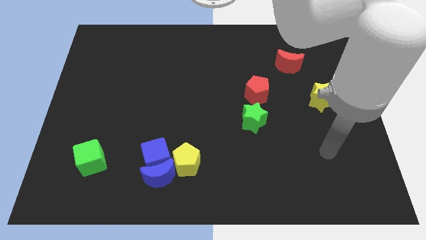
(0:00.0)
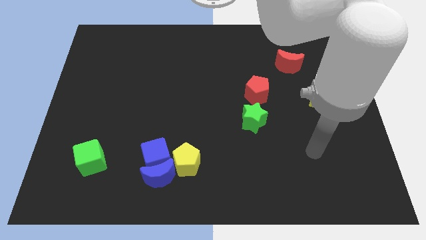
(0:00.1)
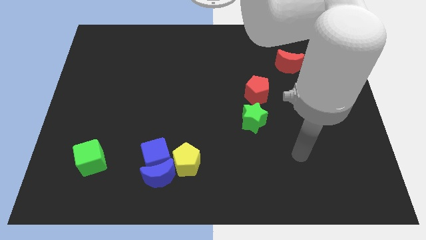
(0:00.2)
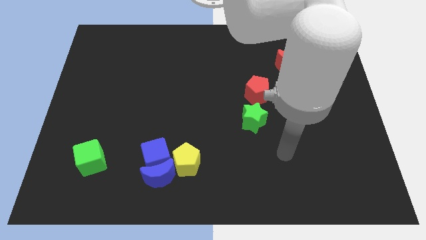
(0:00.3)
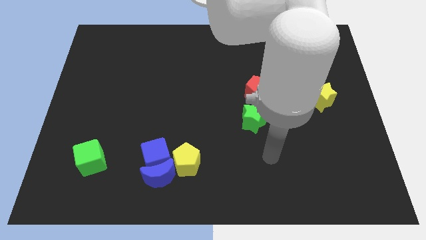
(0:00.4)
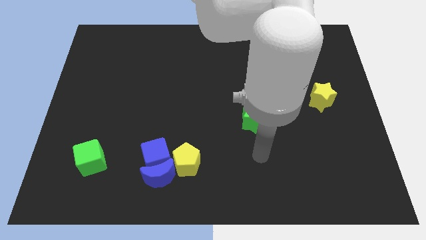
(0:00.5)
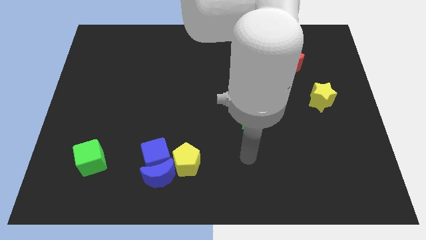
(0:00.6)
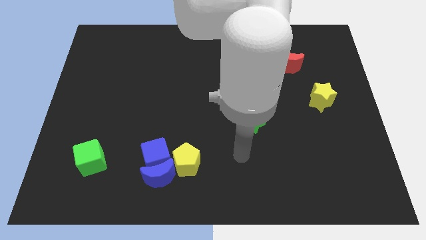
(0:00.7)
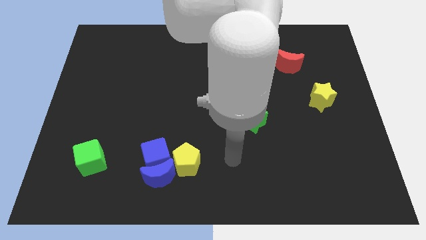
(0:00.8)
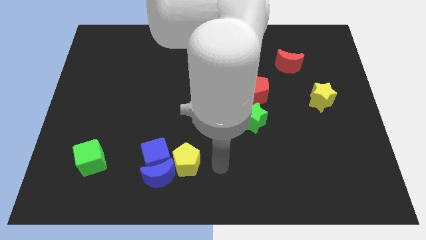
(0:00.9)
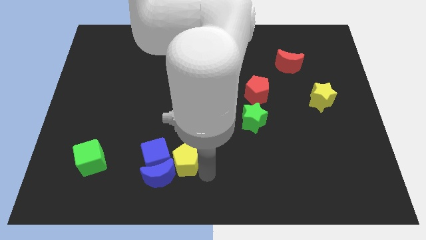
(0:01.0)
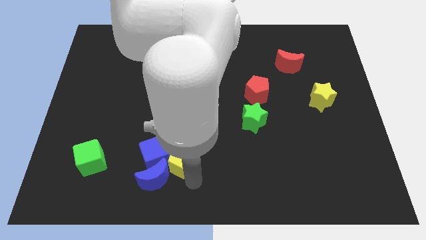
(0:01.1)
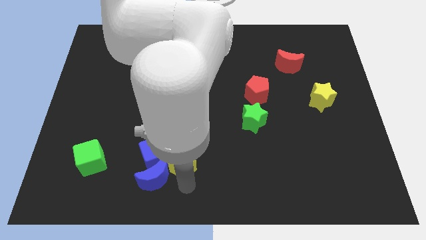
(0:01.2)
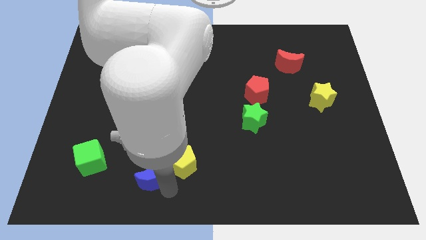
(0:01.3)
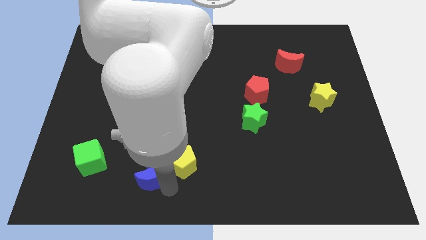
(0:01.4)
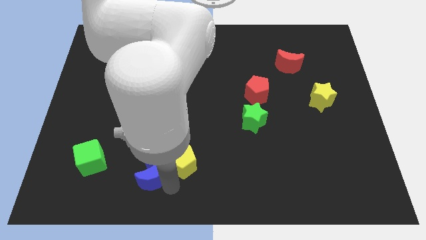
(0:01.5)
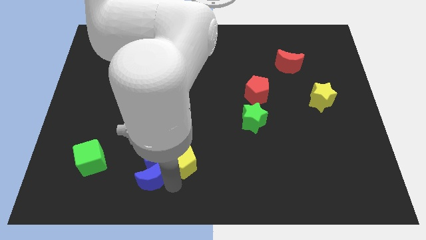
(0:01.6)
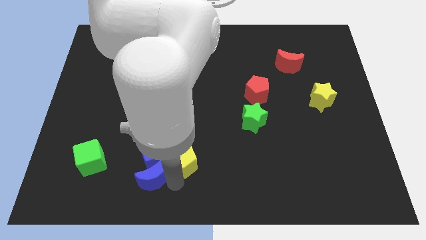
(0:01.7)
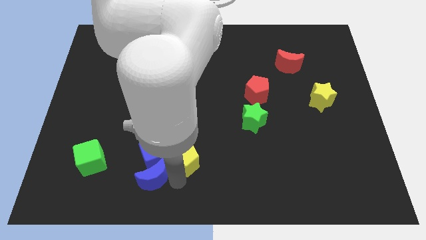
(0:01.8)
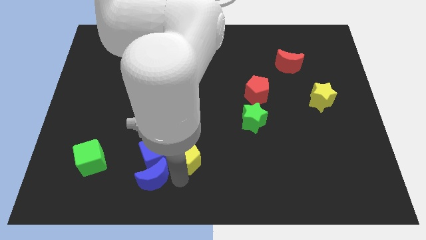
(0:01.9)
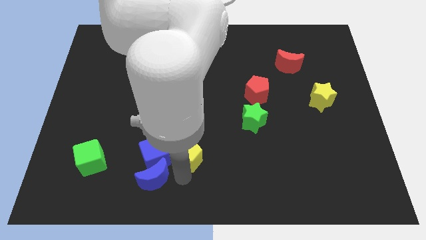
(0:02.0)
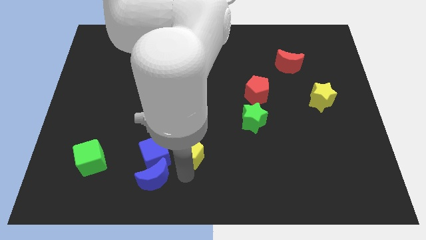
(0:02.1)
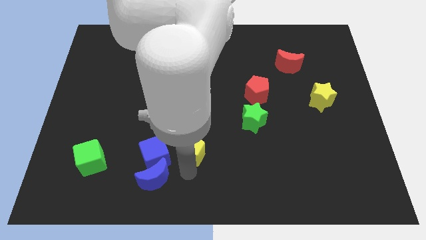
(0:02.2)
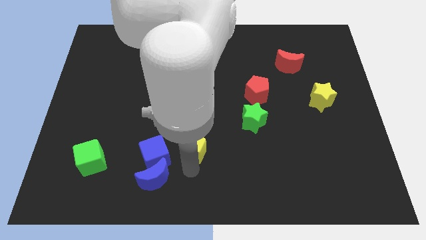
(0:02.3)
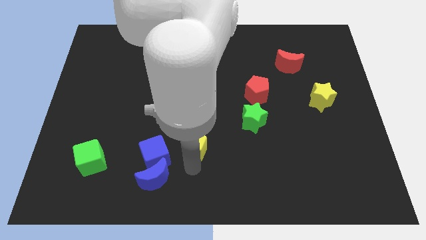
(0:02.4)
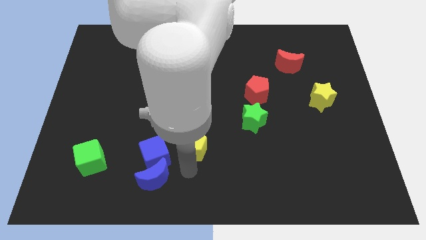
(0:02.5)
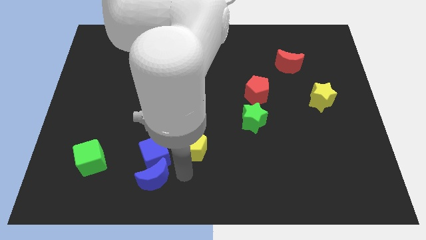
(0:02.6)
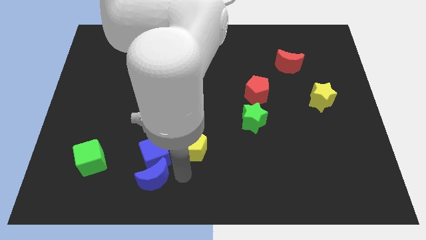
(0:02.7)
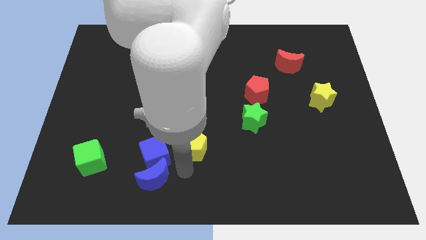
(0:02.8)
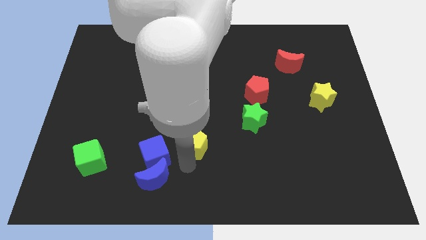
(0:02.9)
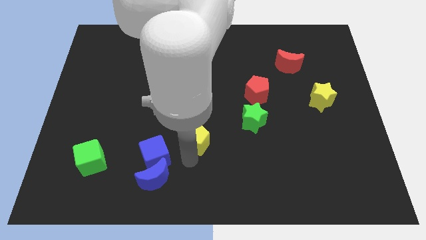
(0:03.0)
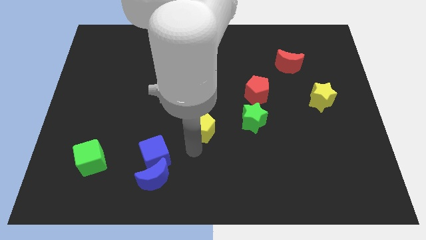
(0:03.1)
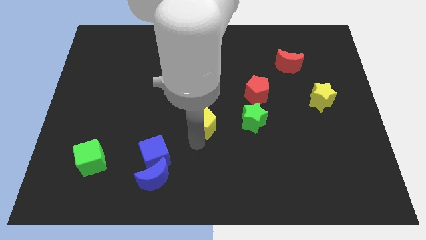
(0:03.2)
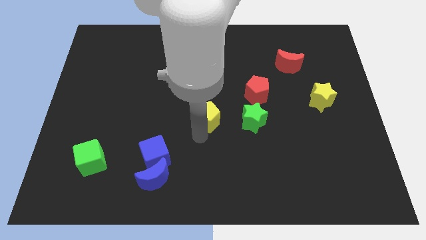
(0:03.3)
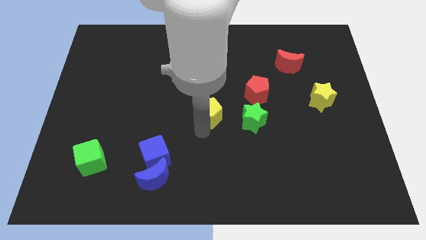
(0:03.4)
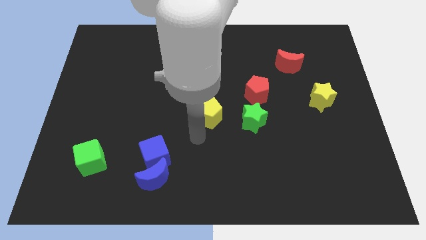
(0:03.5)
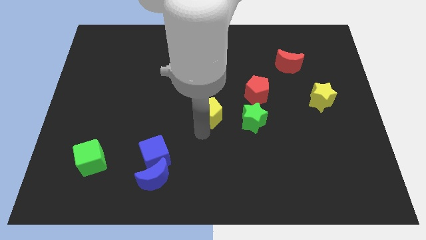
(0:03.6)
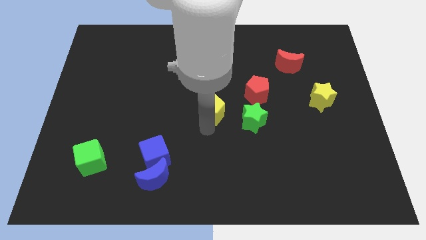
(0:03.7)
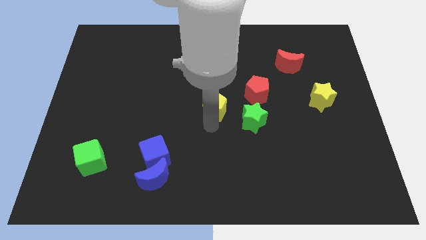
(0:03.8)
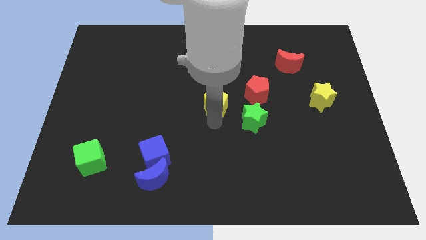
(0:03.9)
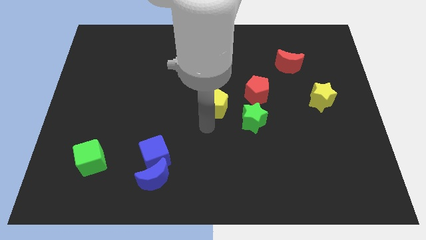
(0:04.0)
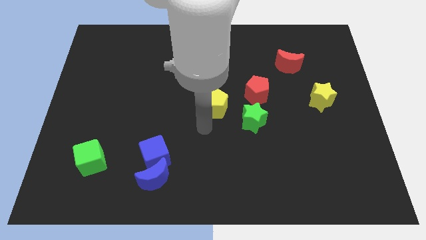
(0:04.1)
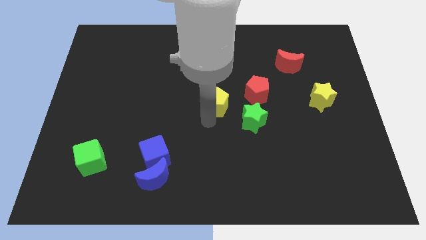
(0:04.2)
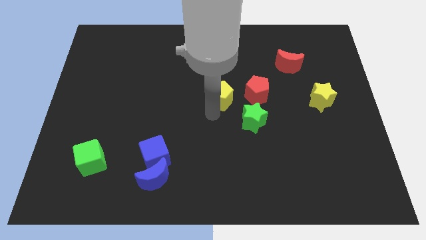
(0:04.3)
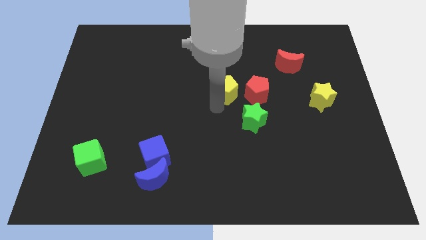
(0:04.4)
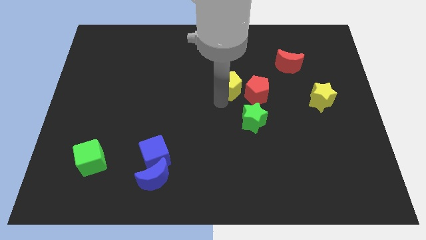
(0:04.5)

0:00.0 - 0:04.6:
put the yellow pentagon diagonally up and to the left of the red pentagon

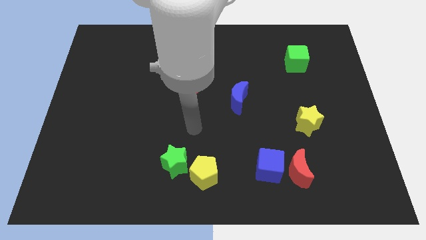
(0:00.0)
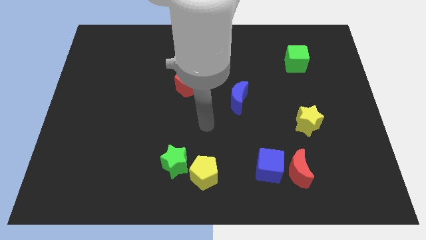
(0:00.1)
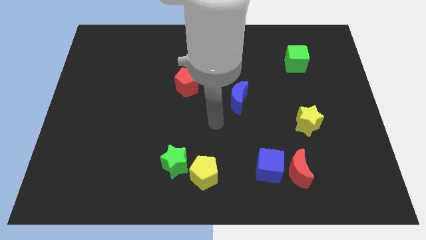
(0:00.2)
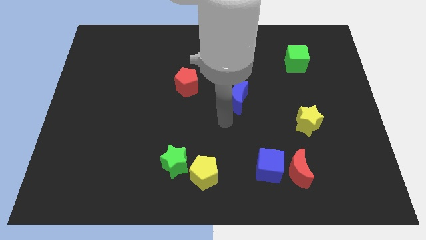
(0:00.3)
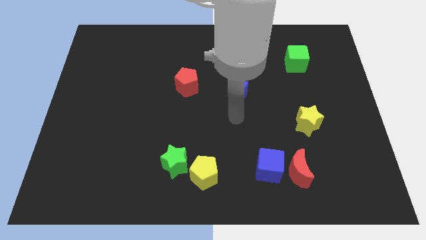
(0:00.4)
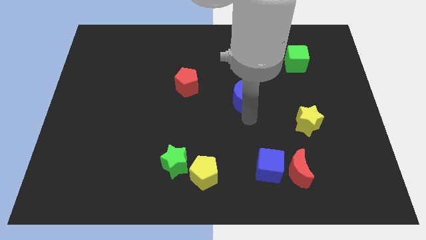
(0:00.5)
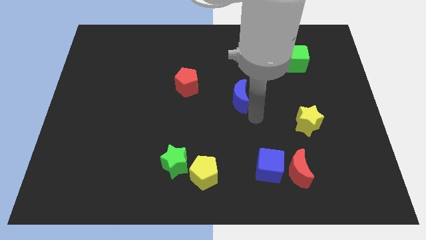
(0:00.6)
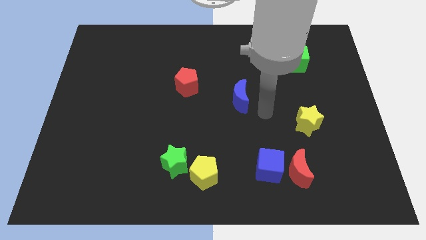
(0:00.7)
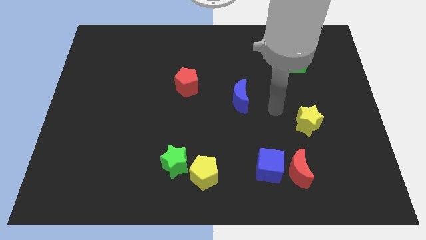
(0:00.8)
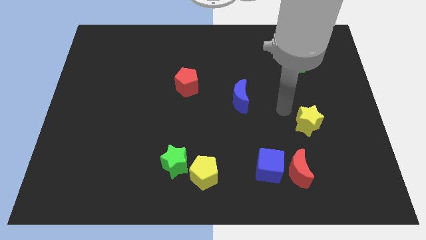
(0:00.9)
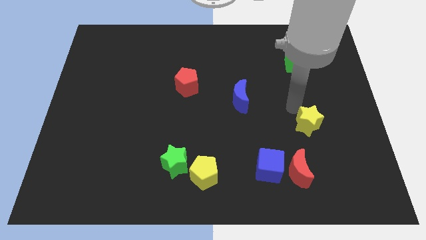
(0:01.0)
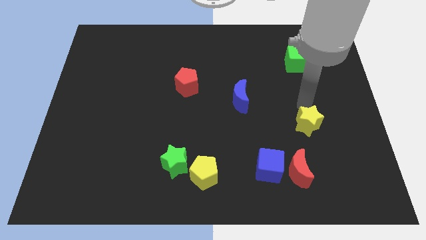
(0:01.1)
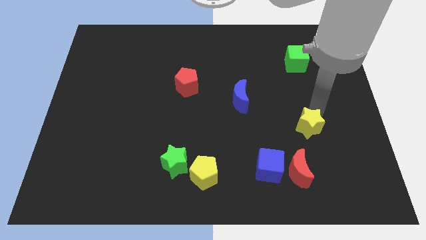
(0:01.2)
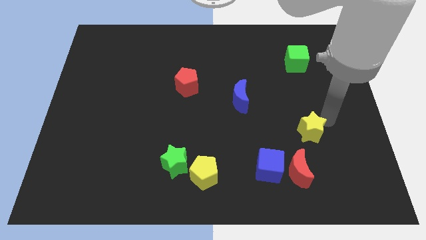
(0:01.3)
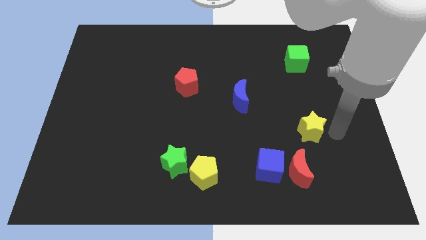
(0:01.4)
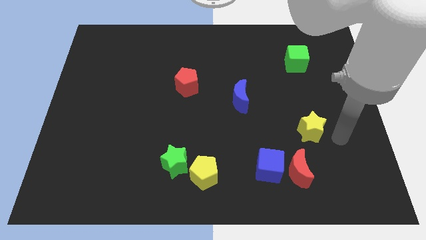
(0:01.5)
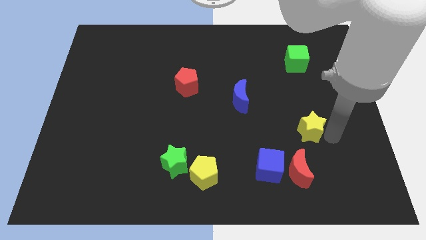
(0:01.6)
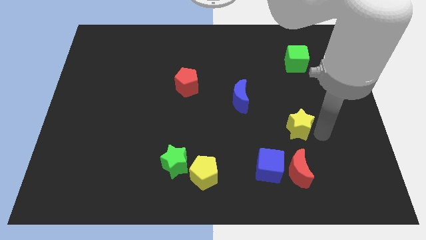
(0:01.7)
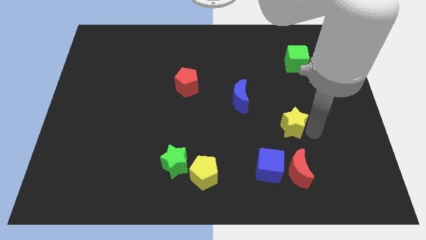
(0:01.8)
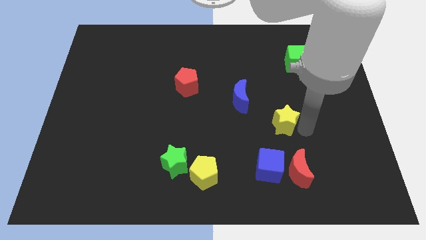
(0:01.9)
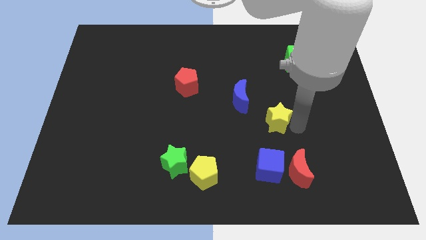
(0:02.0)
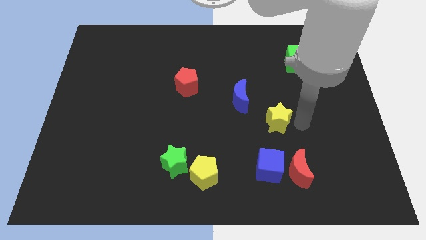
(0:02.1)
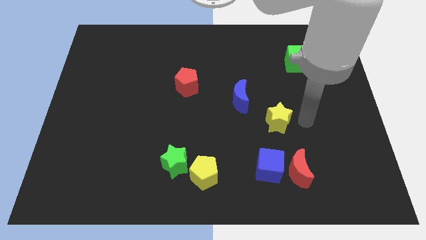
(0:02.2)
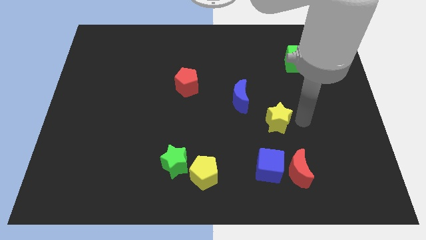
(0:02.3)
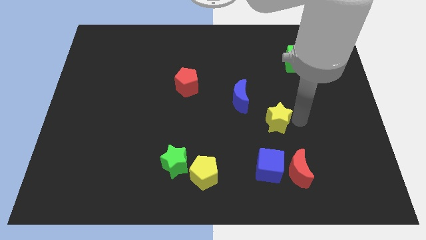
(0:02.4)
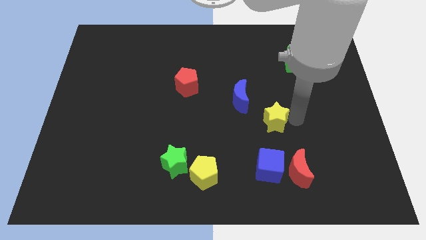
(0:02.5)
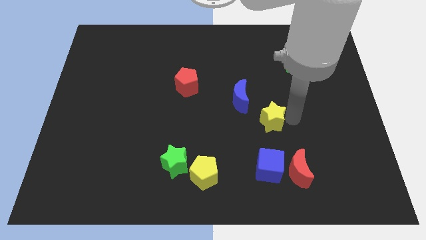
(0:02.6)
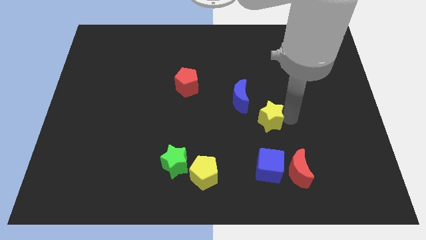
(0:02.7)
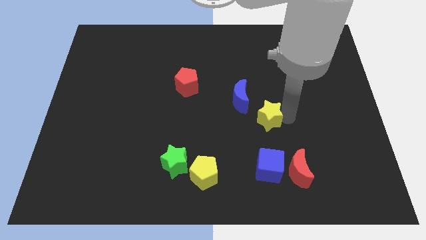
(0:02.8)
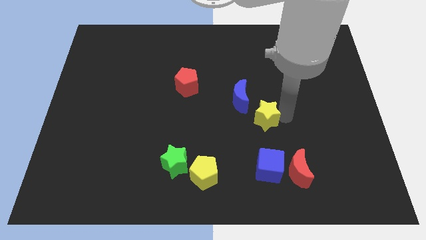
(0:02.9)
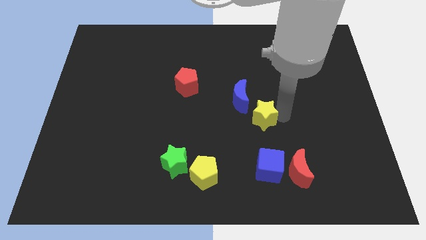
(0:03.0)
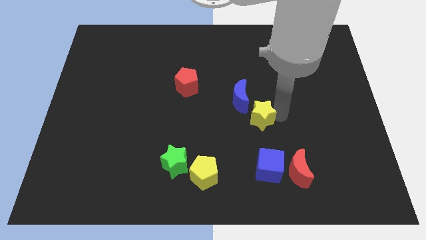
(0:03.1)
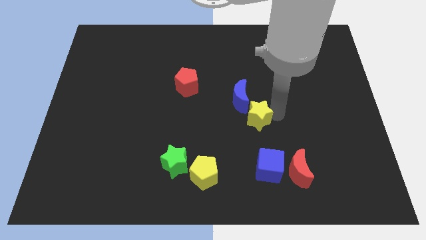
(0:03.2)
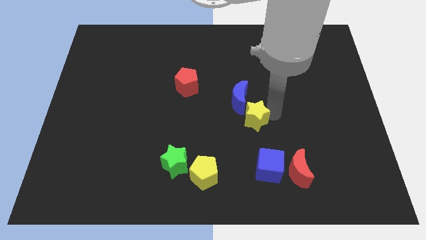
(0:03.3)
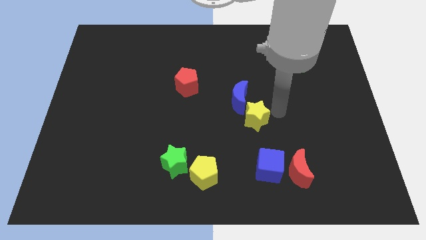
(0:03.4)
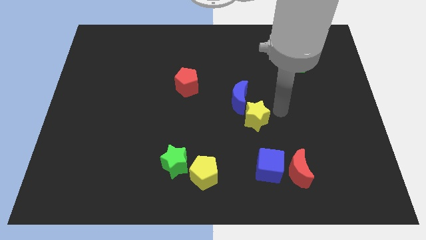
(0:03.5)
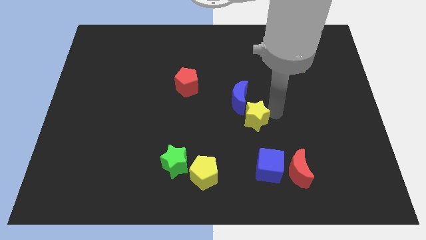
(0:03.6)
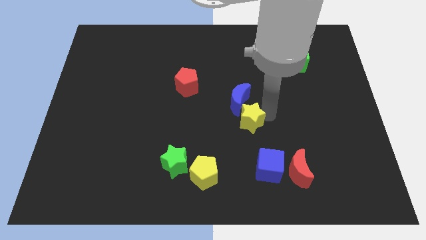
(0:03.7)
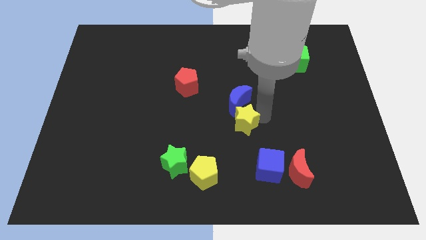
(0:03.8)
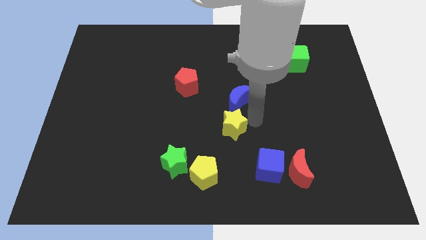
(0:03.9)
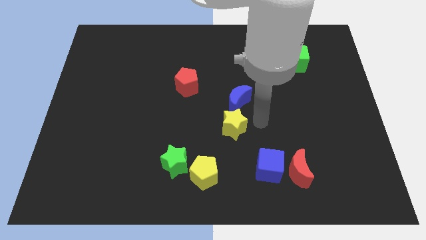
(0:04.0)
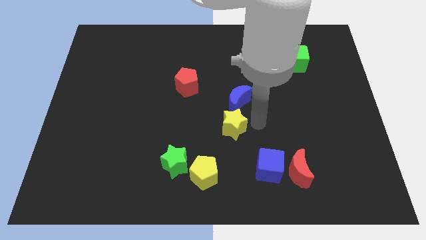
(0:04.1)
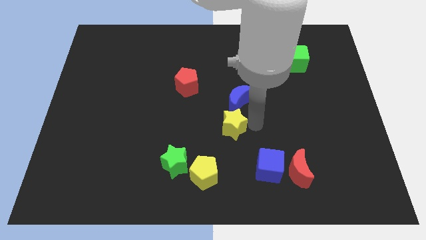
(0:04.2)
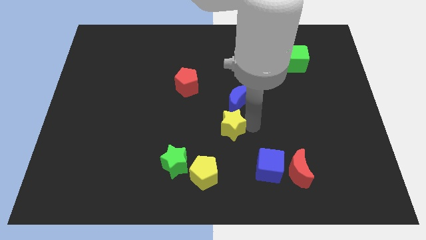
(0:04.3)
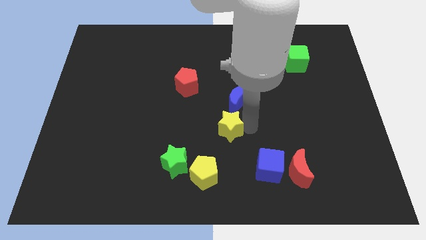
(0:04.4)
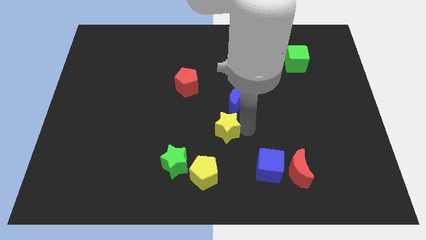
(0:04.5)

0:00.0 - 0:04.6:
move the yellow star above the yellow pentagon
